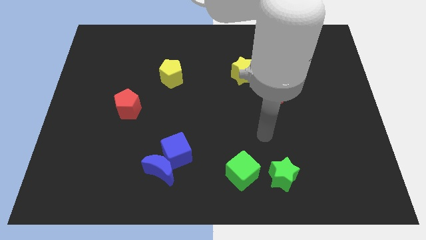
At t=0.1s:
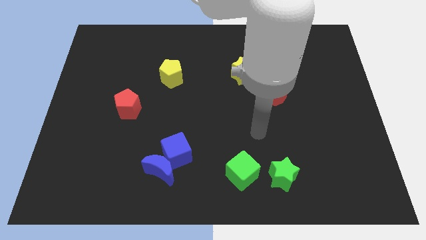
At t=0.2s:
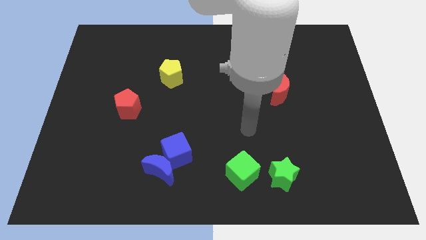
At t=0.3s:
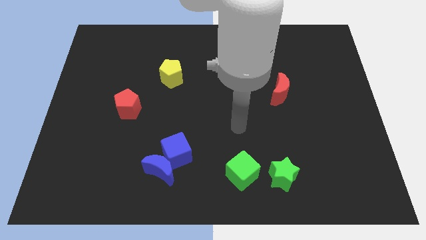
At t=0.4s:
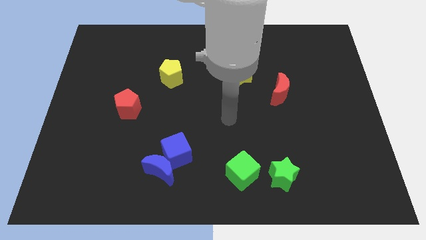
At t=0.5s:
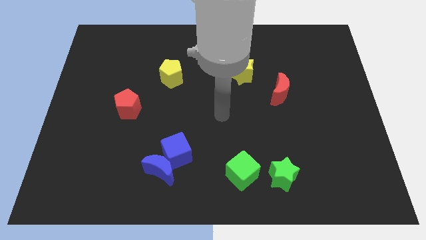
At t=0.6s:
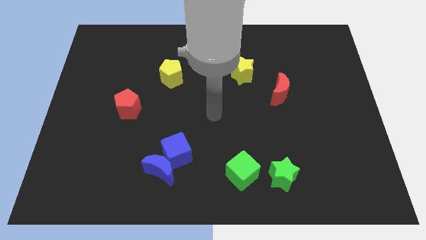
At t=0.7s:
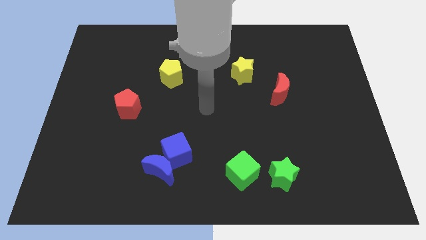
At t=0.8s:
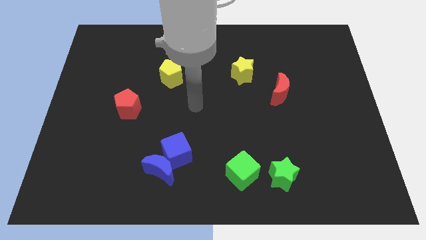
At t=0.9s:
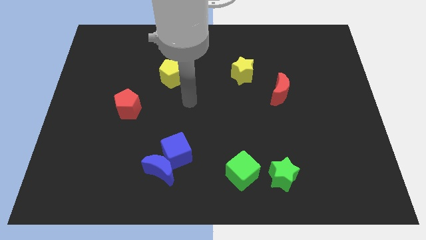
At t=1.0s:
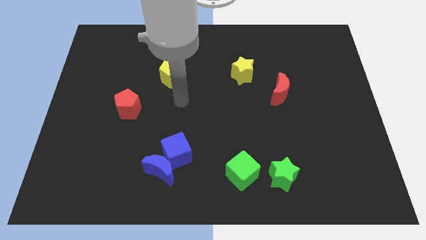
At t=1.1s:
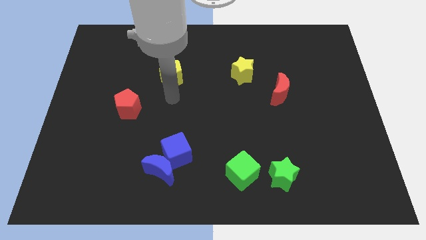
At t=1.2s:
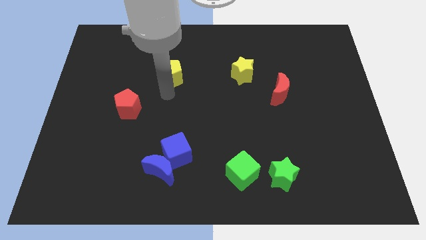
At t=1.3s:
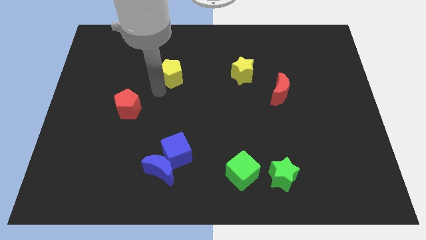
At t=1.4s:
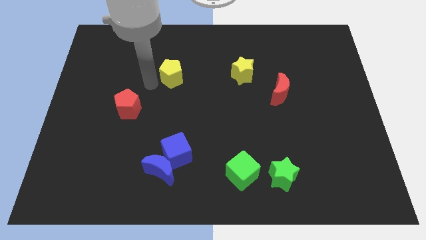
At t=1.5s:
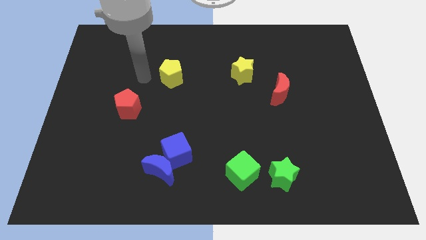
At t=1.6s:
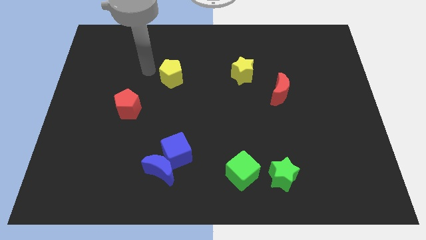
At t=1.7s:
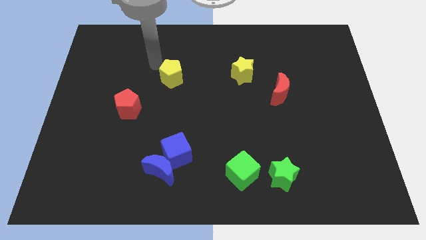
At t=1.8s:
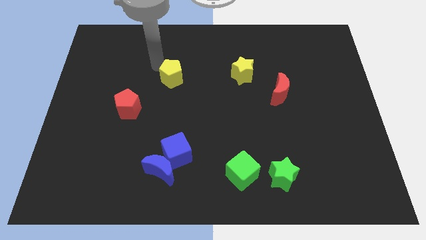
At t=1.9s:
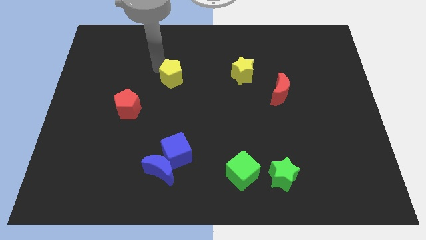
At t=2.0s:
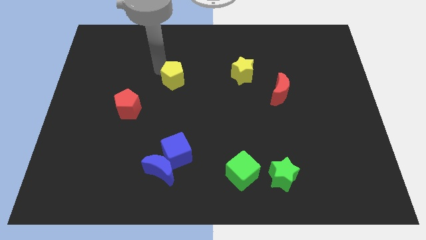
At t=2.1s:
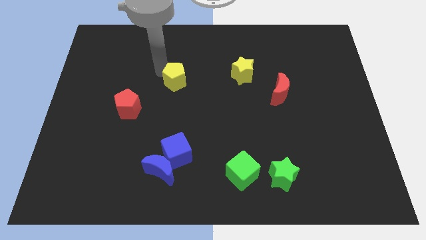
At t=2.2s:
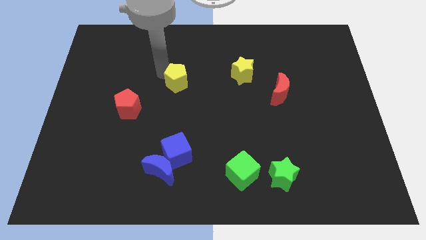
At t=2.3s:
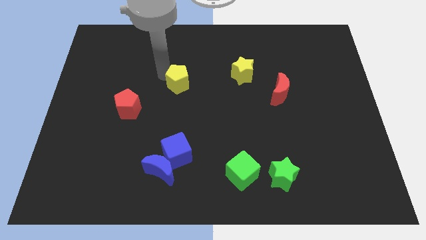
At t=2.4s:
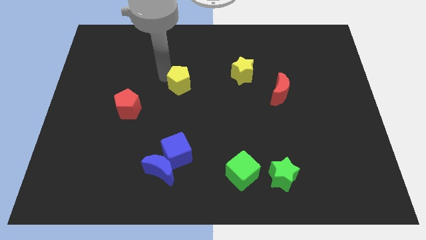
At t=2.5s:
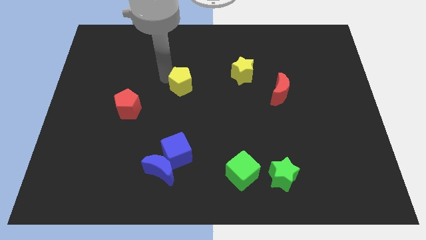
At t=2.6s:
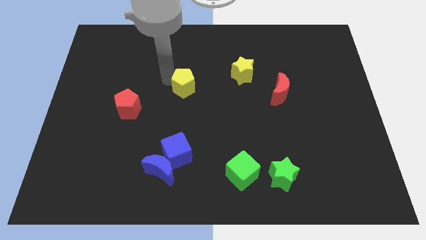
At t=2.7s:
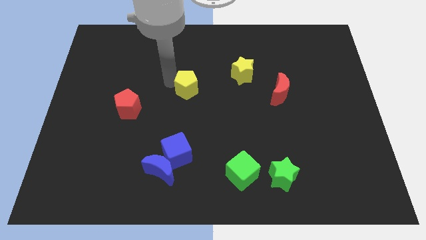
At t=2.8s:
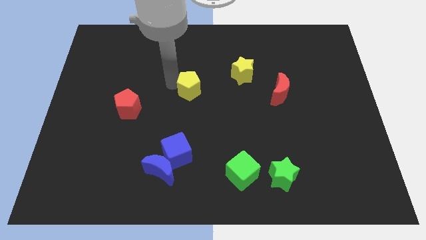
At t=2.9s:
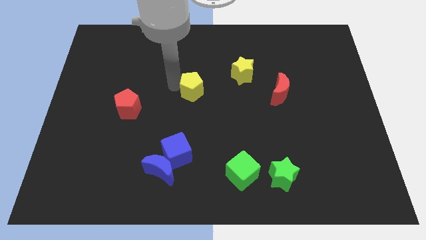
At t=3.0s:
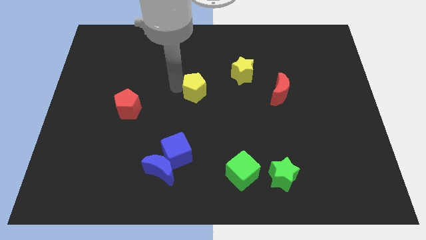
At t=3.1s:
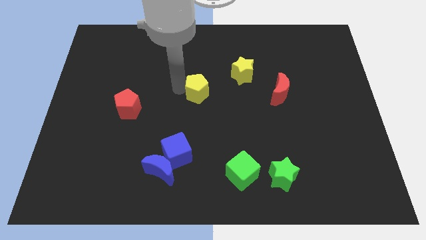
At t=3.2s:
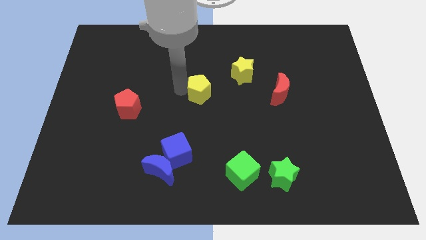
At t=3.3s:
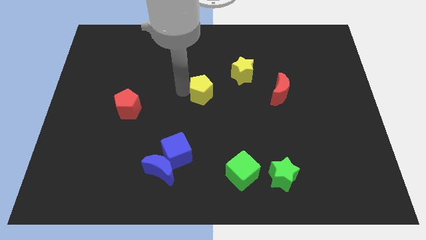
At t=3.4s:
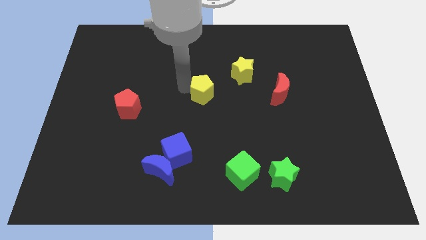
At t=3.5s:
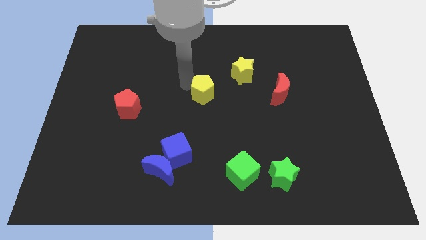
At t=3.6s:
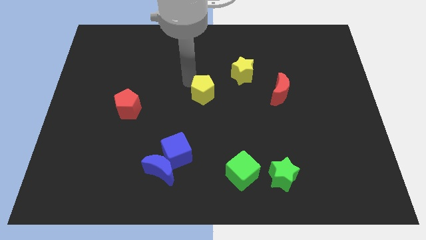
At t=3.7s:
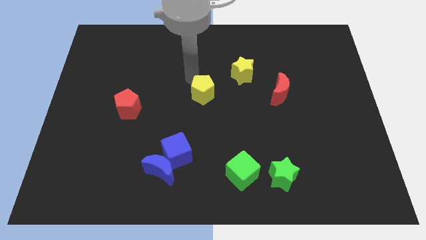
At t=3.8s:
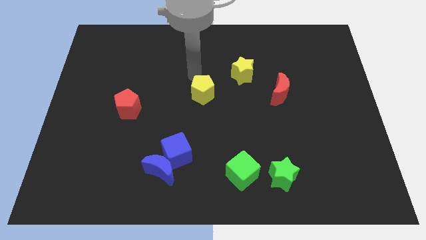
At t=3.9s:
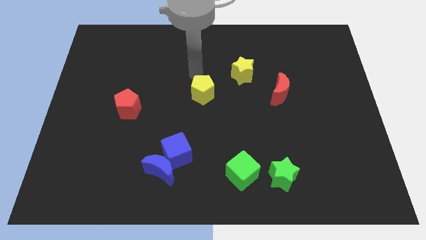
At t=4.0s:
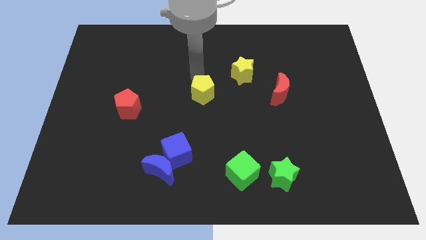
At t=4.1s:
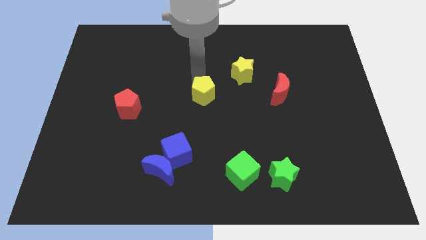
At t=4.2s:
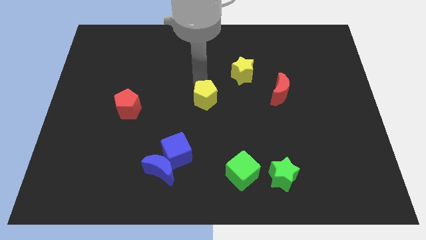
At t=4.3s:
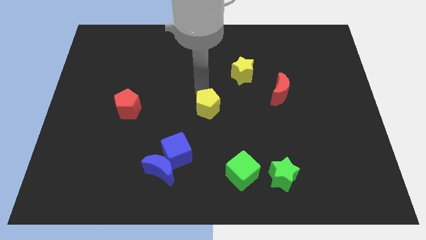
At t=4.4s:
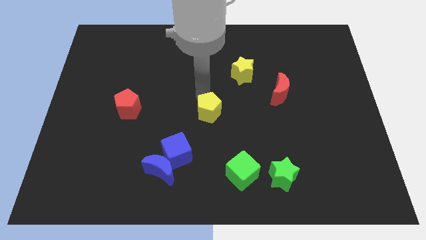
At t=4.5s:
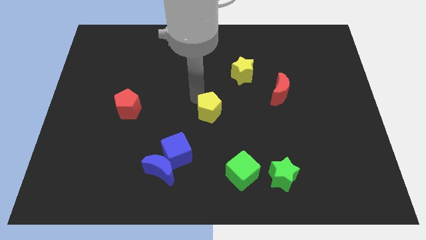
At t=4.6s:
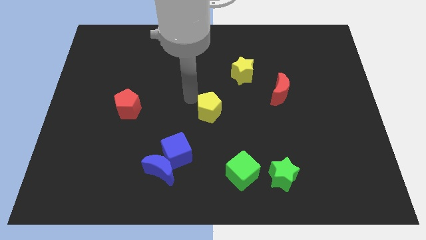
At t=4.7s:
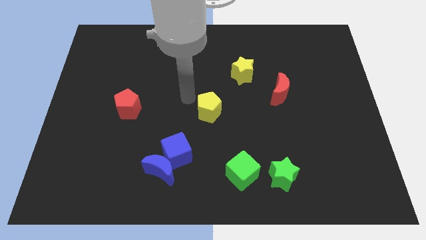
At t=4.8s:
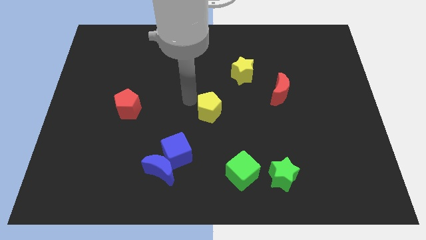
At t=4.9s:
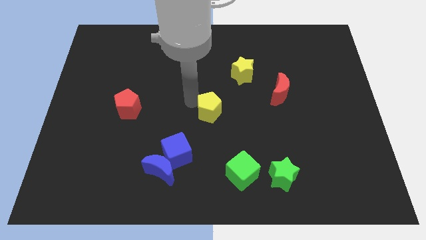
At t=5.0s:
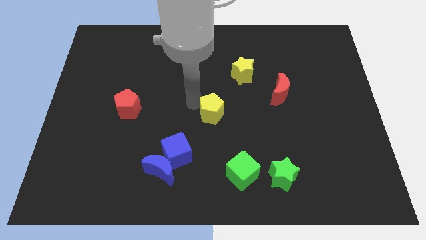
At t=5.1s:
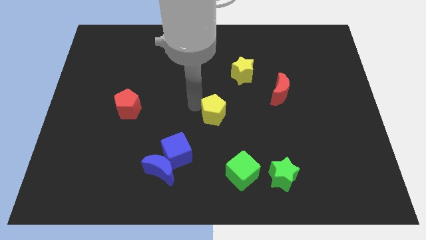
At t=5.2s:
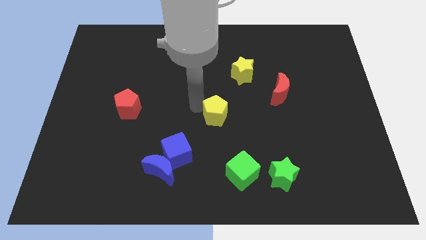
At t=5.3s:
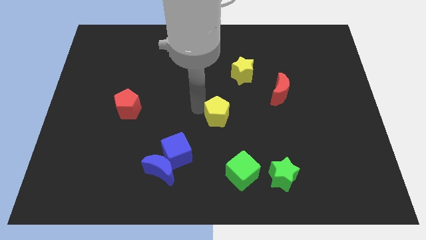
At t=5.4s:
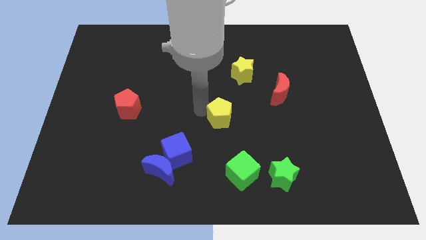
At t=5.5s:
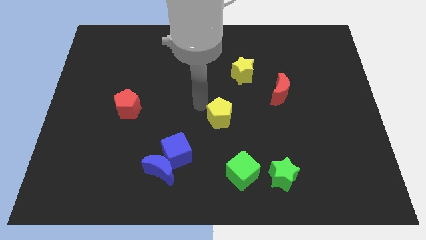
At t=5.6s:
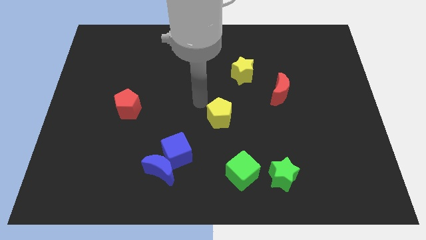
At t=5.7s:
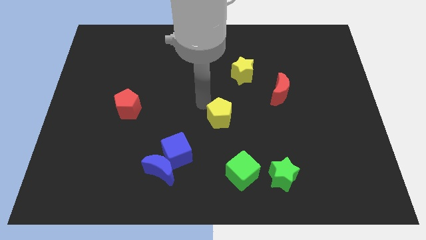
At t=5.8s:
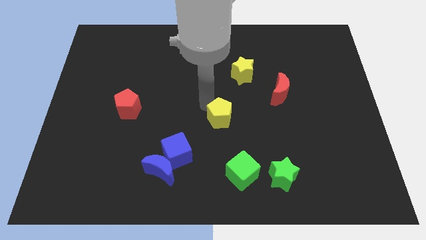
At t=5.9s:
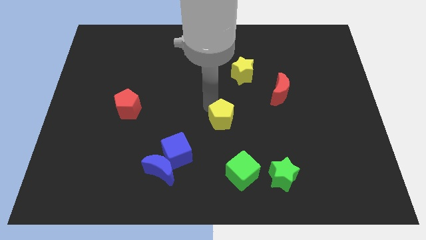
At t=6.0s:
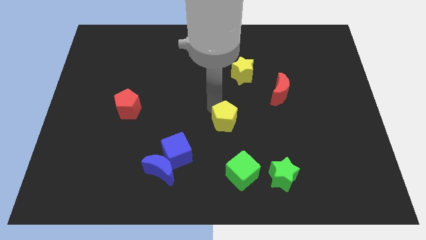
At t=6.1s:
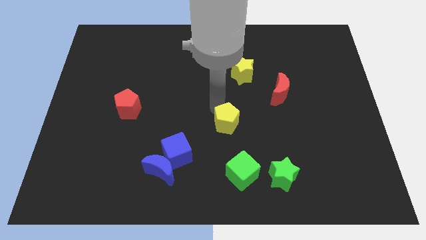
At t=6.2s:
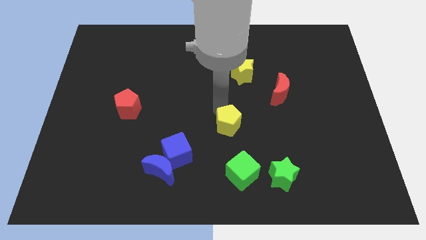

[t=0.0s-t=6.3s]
slide the yellow pentagon diagonally down and to the right

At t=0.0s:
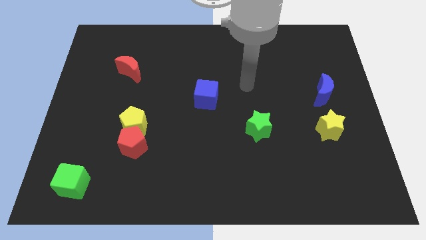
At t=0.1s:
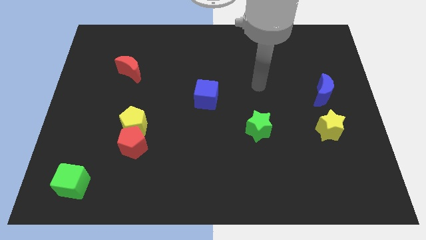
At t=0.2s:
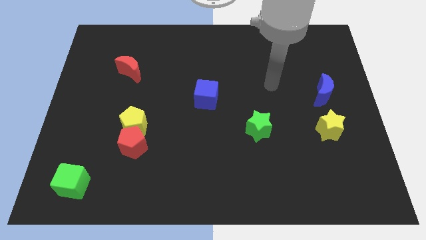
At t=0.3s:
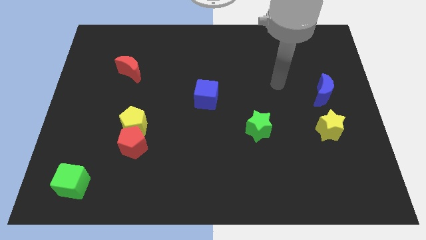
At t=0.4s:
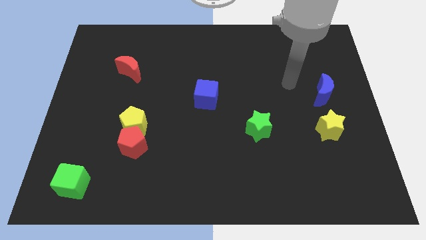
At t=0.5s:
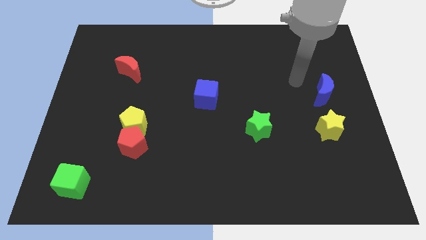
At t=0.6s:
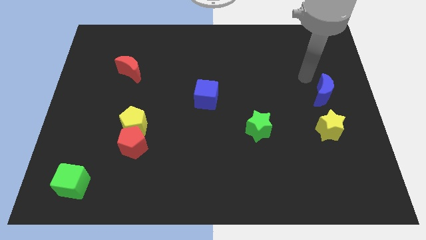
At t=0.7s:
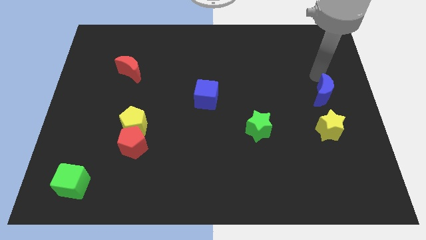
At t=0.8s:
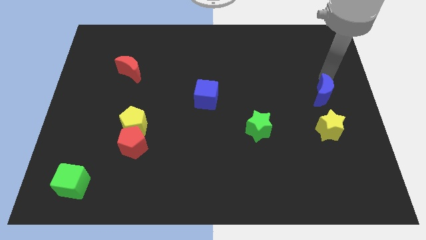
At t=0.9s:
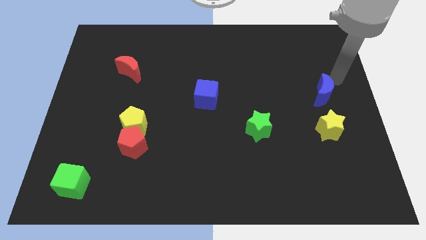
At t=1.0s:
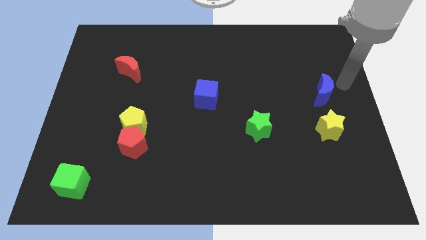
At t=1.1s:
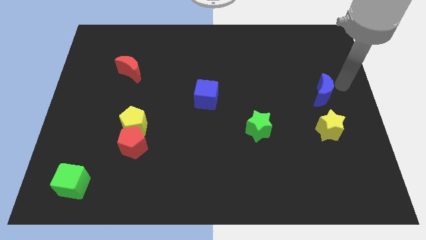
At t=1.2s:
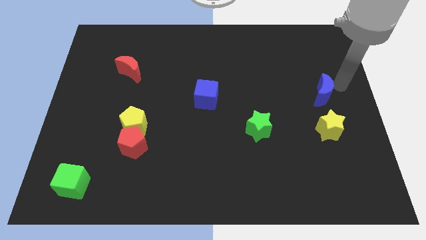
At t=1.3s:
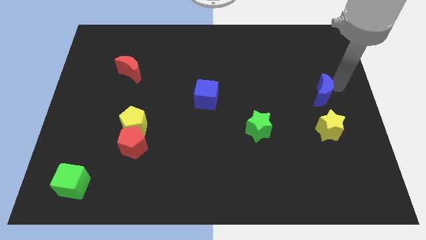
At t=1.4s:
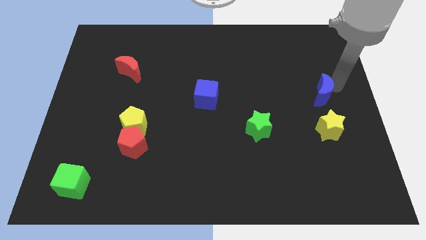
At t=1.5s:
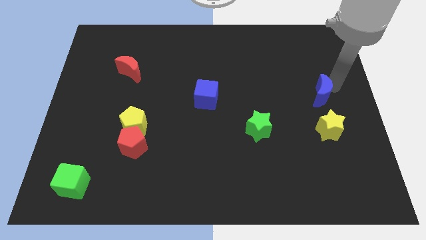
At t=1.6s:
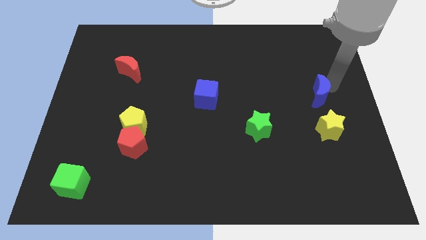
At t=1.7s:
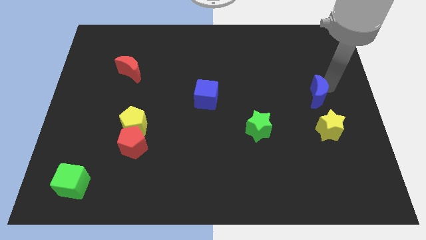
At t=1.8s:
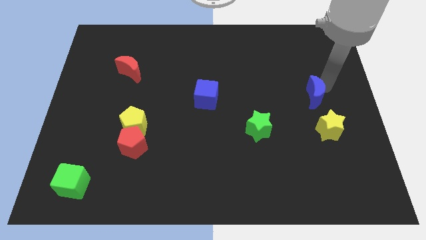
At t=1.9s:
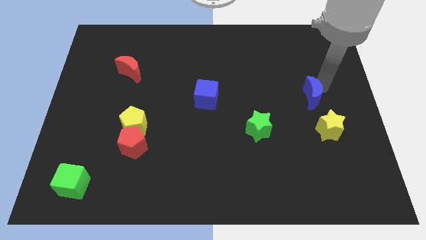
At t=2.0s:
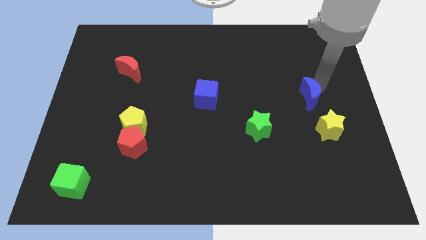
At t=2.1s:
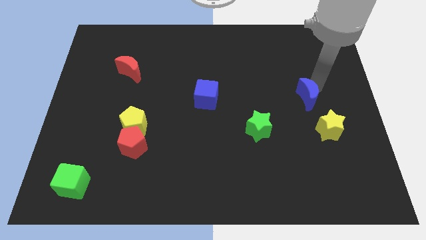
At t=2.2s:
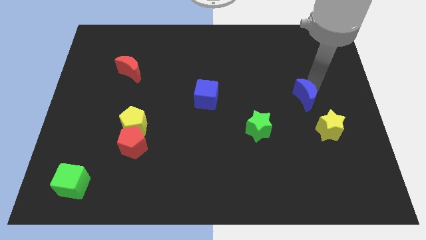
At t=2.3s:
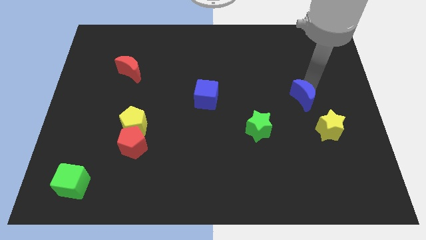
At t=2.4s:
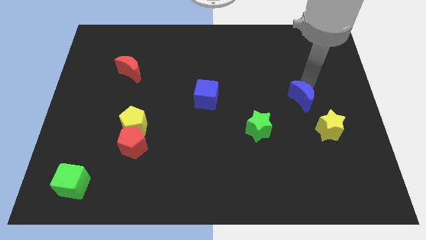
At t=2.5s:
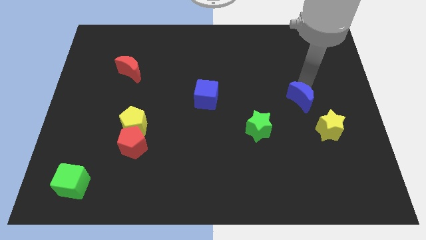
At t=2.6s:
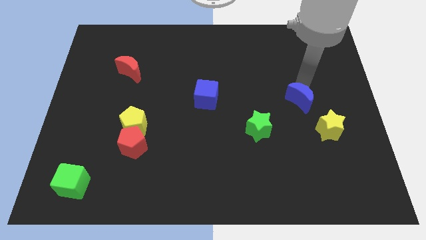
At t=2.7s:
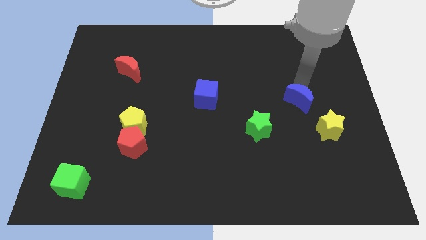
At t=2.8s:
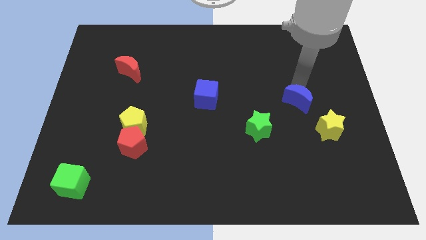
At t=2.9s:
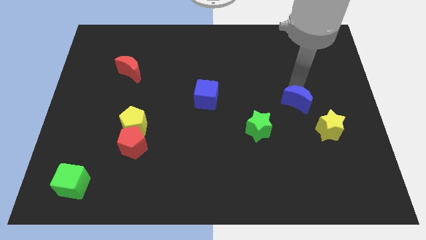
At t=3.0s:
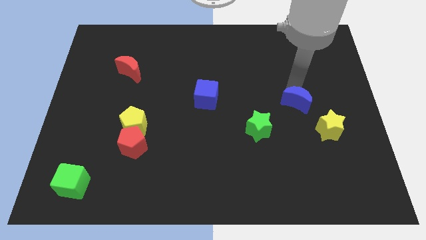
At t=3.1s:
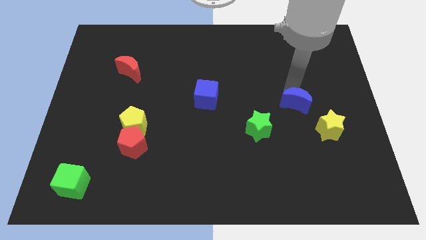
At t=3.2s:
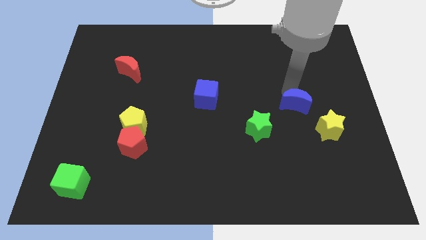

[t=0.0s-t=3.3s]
slide the blue moon somewhat down and then to the left
